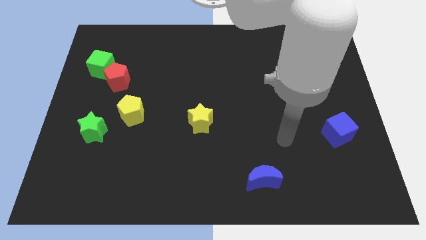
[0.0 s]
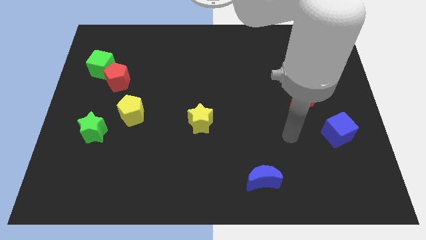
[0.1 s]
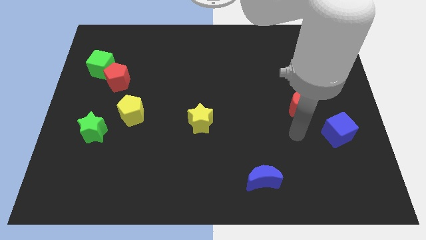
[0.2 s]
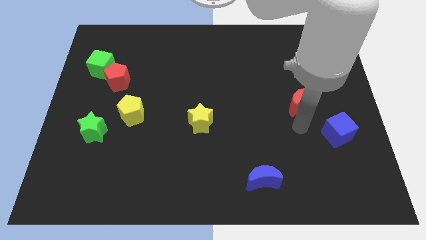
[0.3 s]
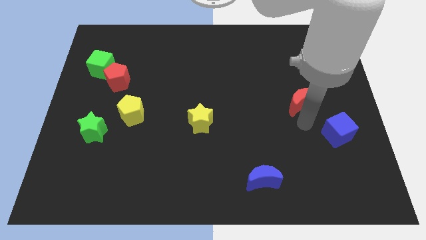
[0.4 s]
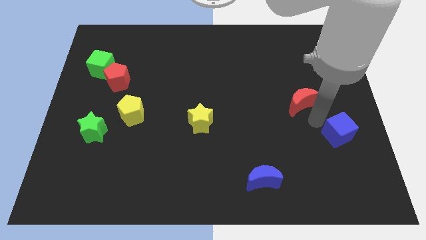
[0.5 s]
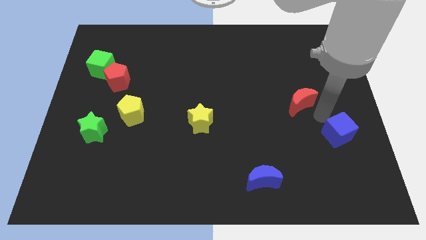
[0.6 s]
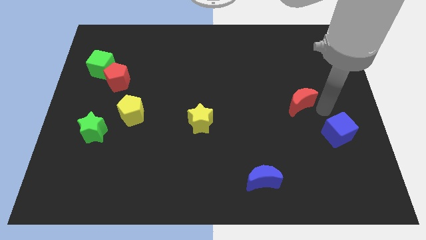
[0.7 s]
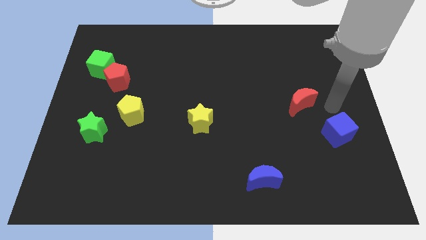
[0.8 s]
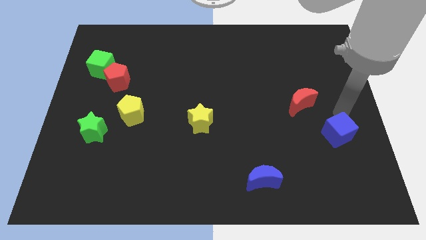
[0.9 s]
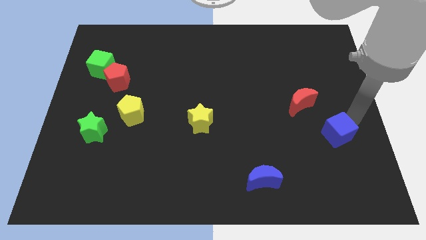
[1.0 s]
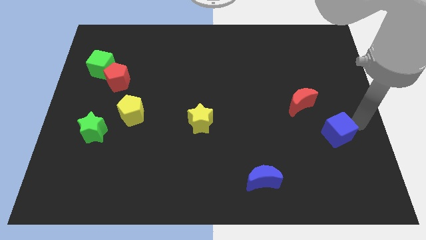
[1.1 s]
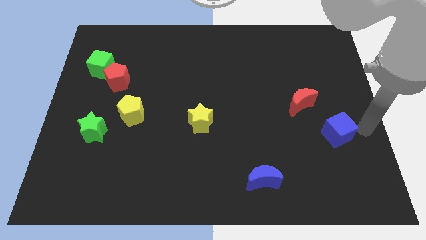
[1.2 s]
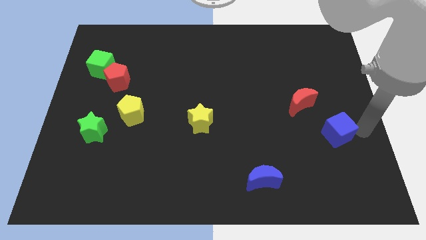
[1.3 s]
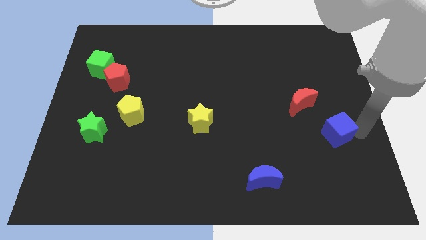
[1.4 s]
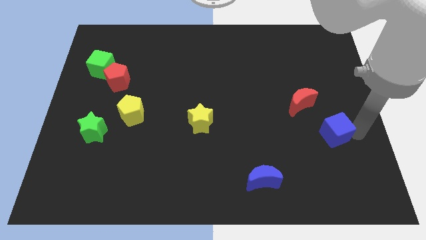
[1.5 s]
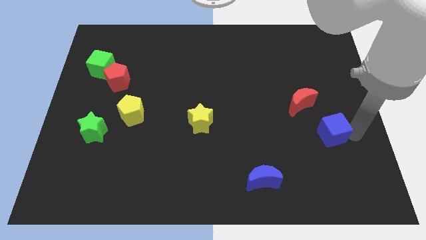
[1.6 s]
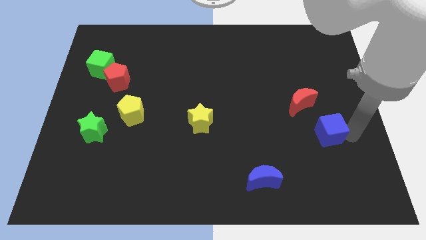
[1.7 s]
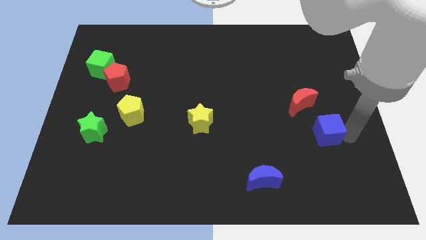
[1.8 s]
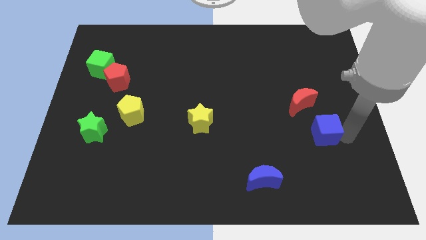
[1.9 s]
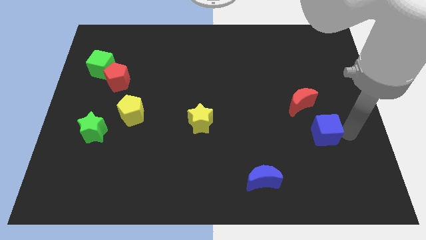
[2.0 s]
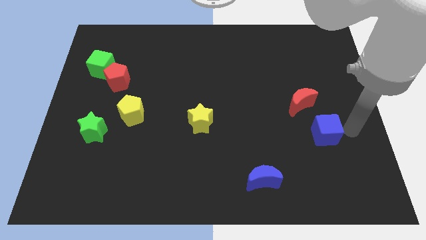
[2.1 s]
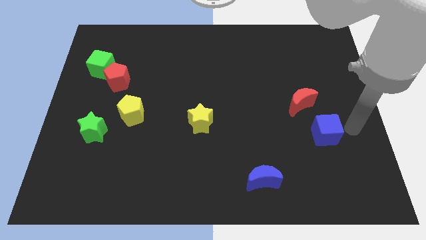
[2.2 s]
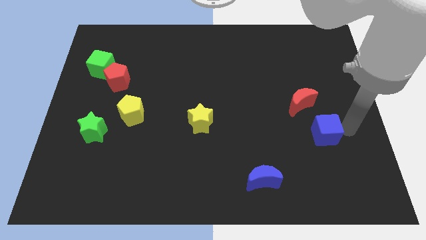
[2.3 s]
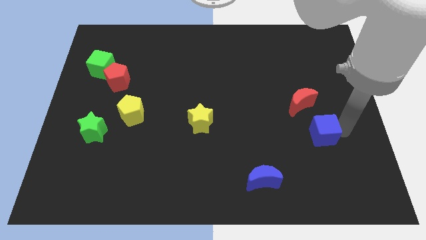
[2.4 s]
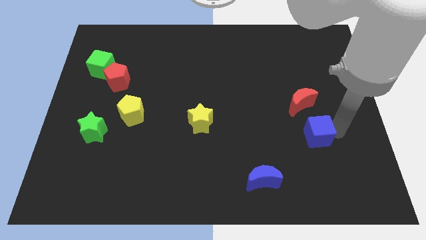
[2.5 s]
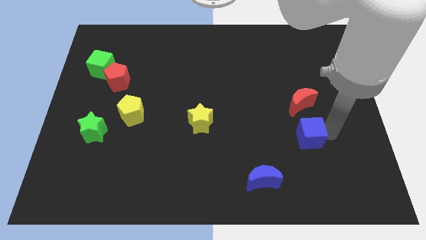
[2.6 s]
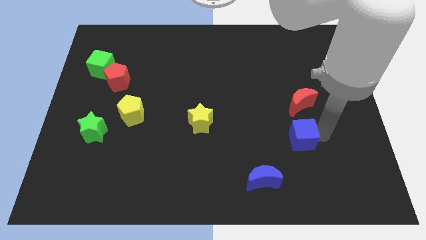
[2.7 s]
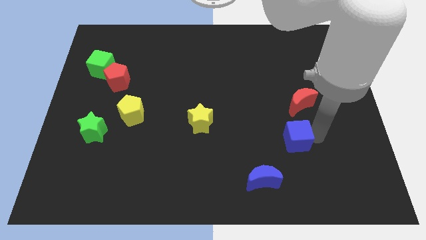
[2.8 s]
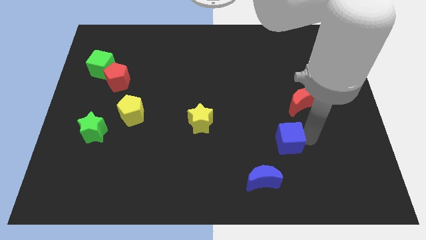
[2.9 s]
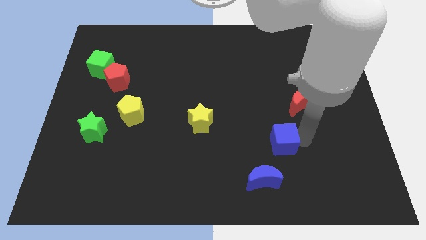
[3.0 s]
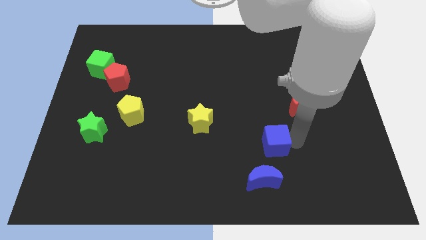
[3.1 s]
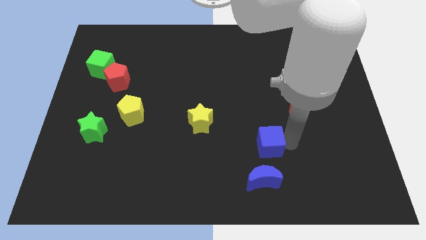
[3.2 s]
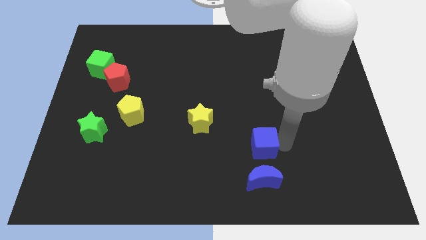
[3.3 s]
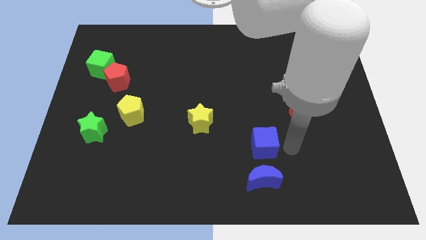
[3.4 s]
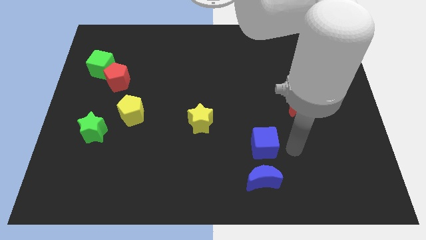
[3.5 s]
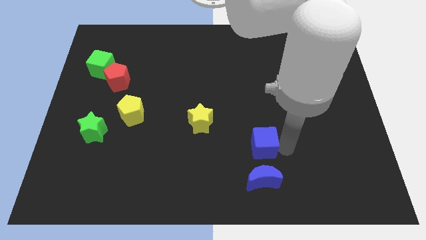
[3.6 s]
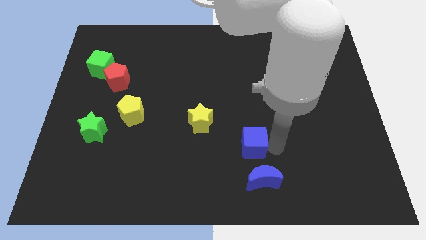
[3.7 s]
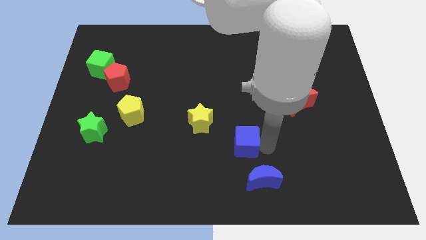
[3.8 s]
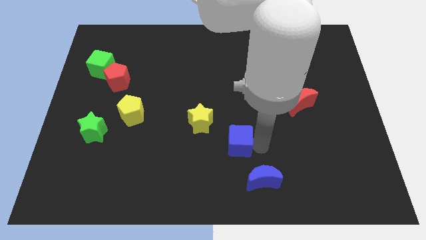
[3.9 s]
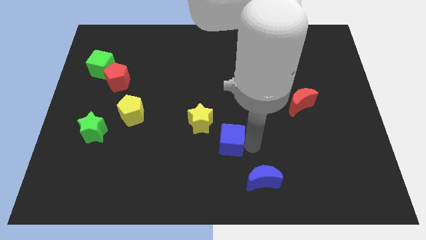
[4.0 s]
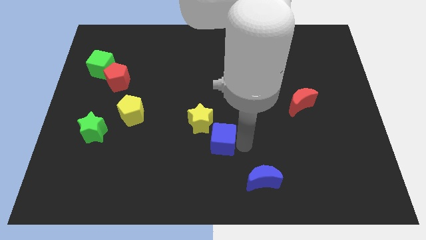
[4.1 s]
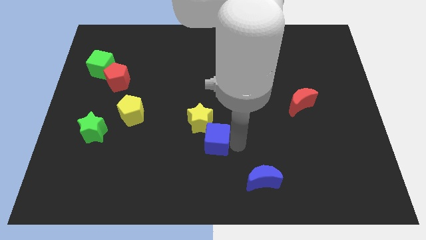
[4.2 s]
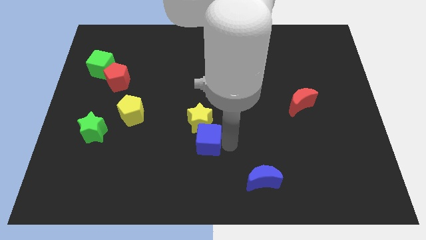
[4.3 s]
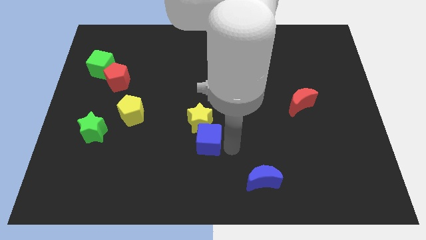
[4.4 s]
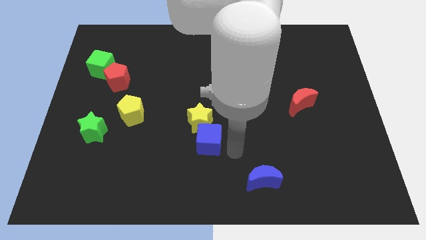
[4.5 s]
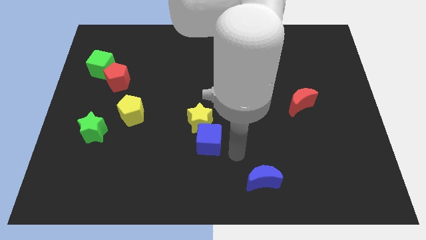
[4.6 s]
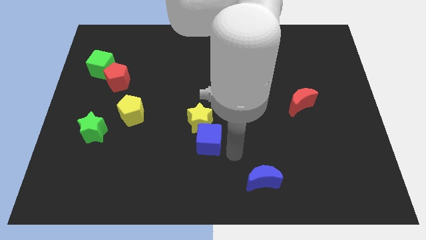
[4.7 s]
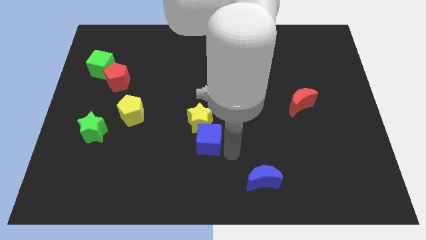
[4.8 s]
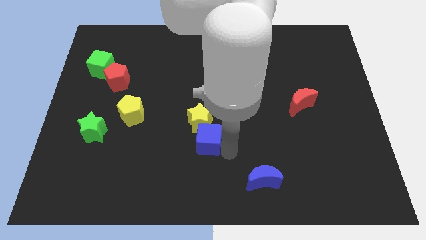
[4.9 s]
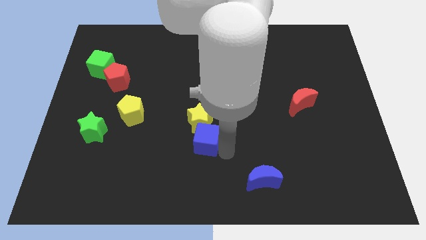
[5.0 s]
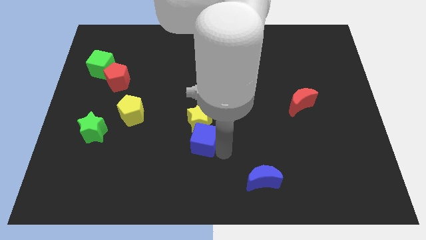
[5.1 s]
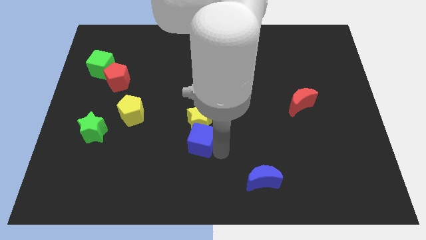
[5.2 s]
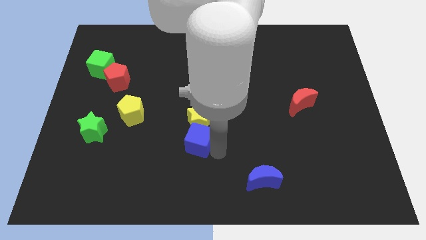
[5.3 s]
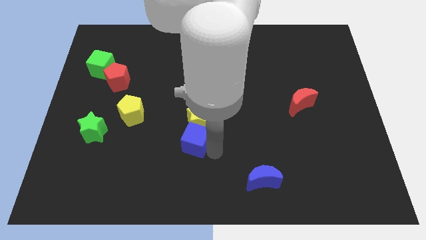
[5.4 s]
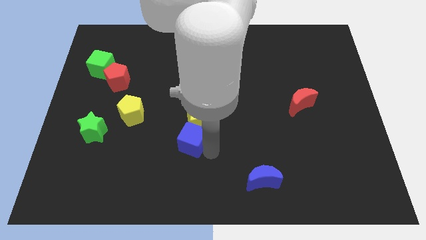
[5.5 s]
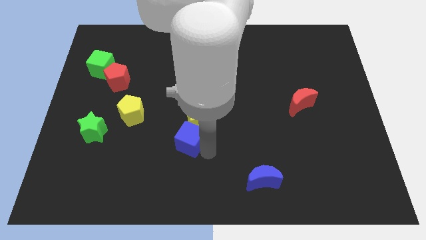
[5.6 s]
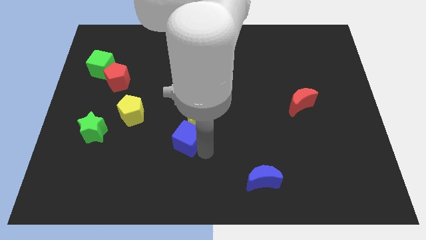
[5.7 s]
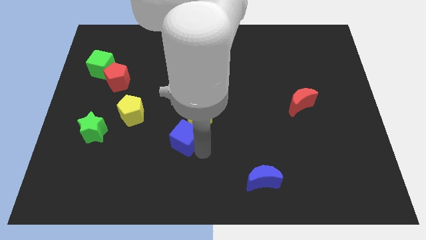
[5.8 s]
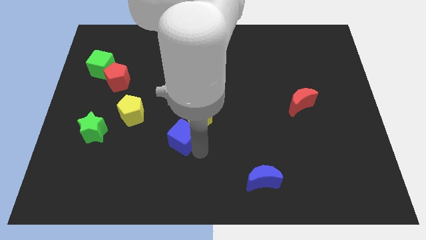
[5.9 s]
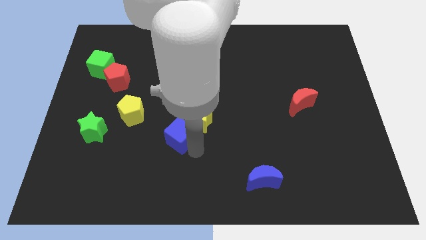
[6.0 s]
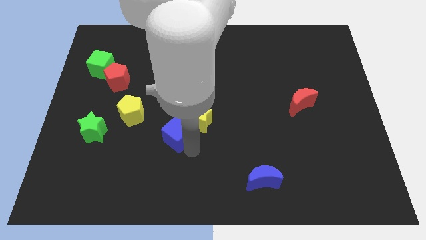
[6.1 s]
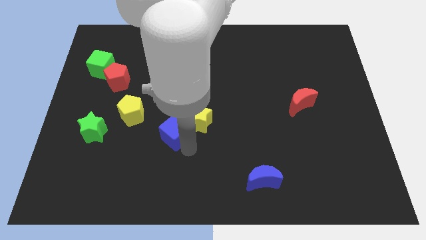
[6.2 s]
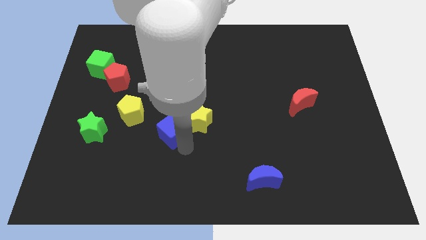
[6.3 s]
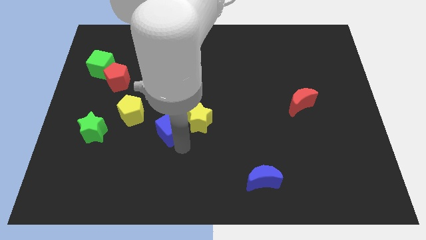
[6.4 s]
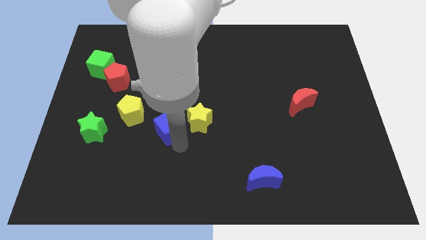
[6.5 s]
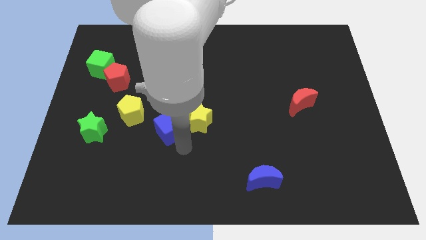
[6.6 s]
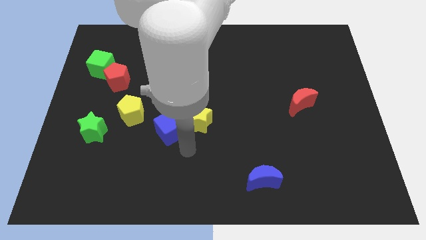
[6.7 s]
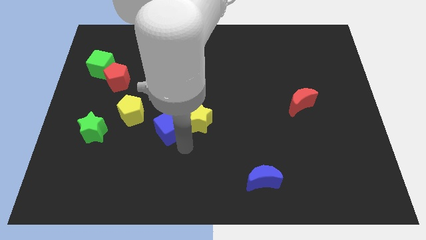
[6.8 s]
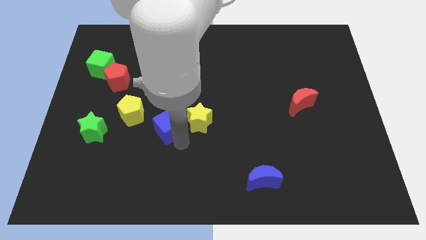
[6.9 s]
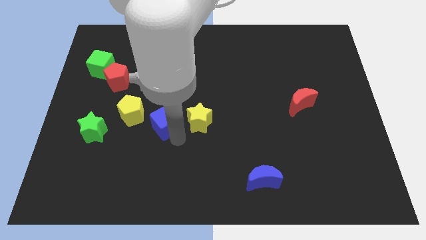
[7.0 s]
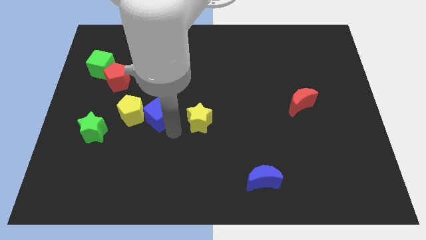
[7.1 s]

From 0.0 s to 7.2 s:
move the blue cube towards the yellow pentagon

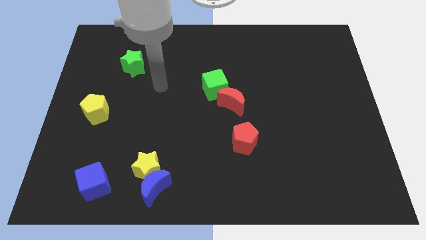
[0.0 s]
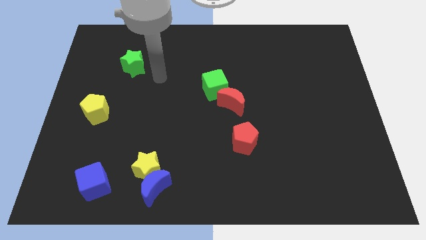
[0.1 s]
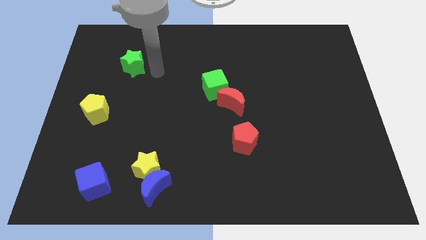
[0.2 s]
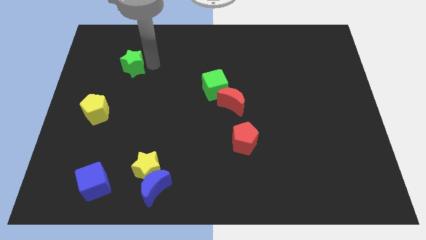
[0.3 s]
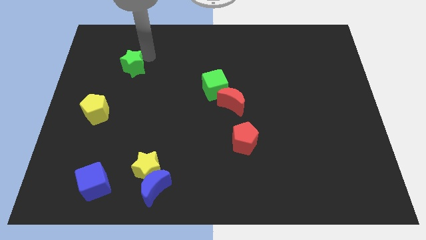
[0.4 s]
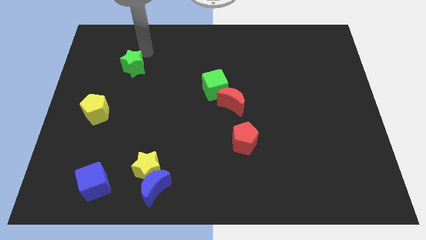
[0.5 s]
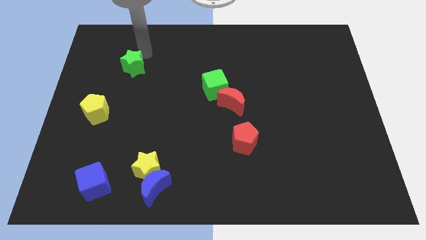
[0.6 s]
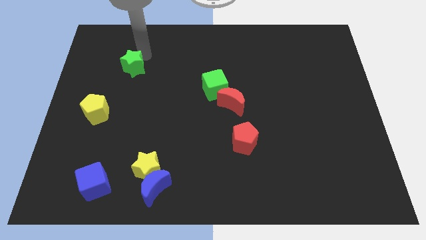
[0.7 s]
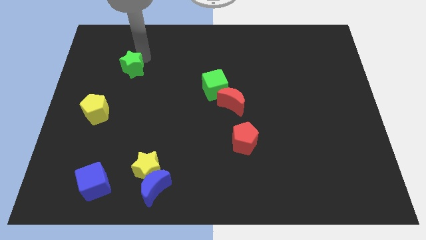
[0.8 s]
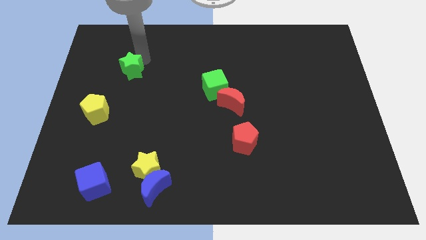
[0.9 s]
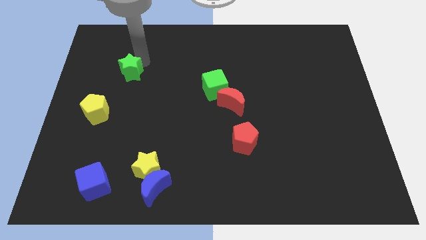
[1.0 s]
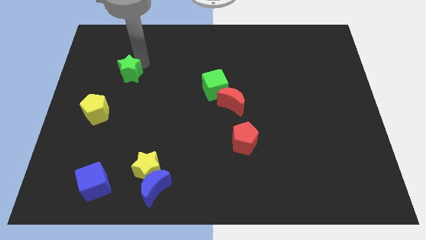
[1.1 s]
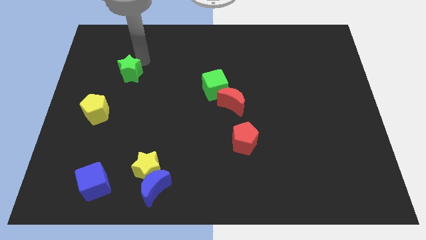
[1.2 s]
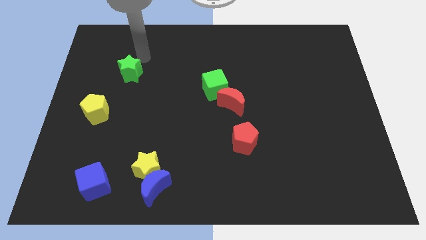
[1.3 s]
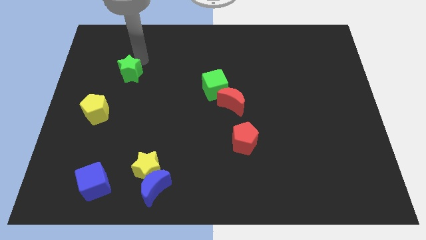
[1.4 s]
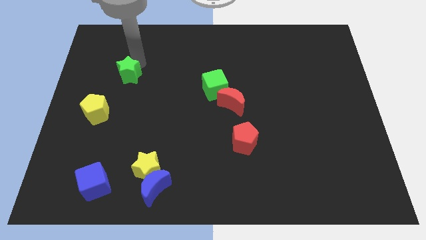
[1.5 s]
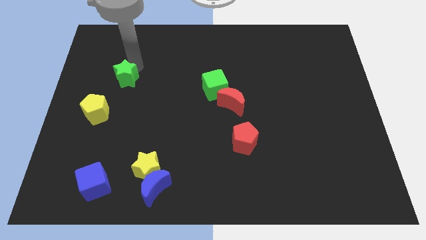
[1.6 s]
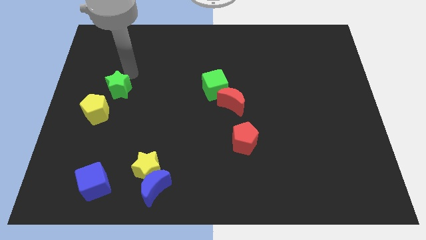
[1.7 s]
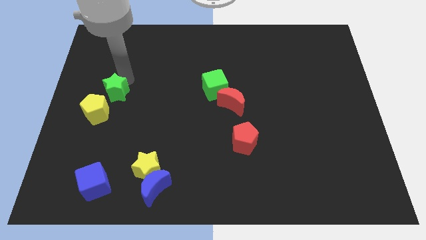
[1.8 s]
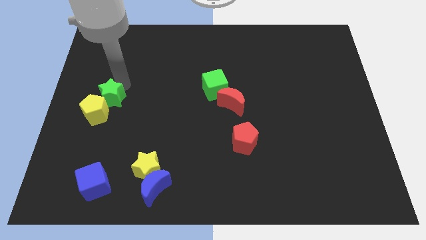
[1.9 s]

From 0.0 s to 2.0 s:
slide the green star towards the yellow pentagon
